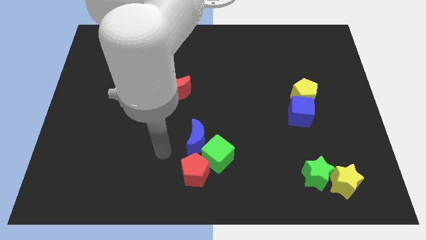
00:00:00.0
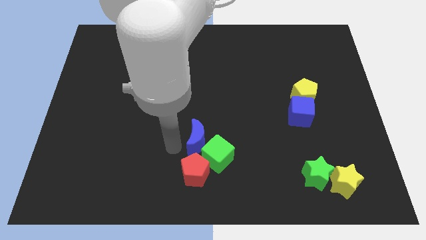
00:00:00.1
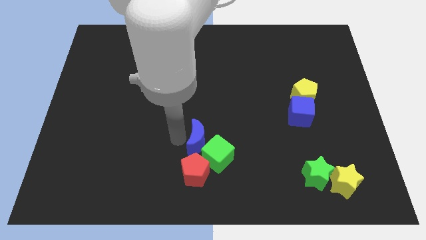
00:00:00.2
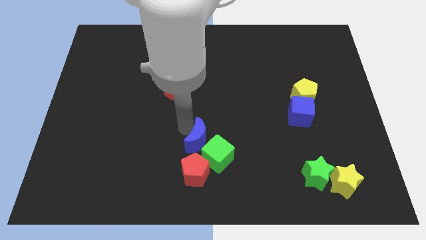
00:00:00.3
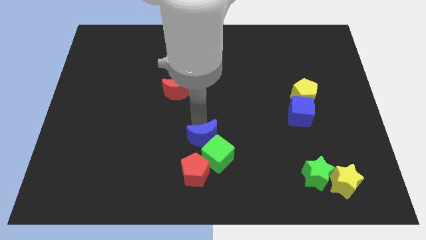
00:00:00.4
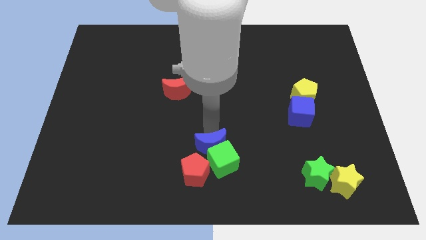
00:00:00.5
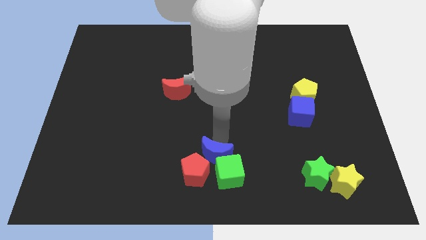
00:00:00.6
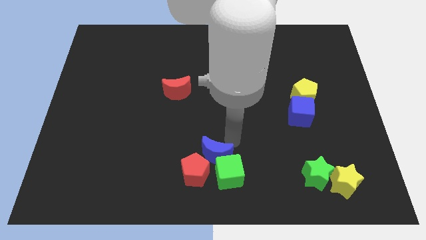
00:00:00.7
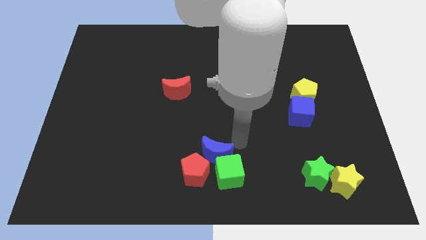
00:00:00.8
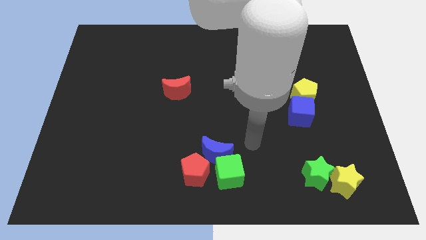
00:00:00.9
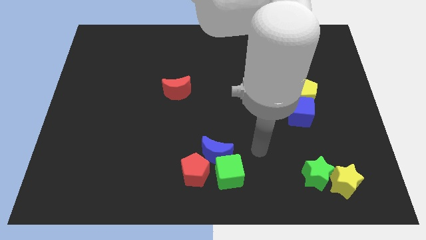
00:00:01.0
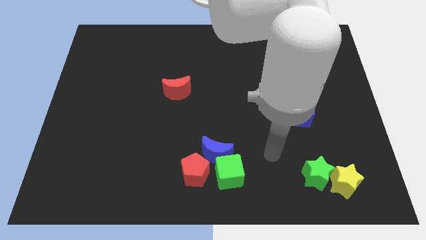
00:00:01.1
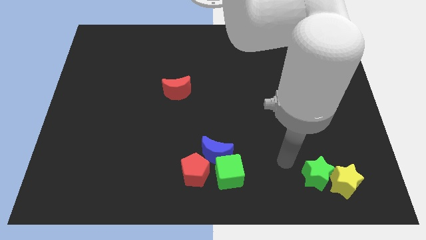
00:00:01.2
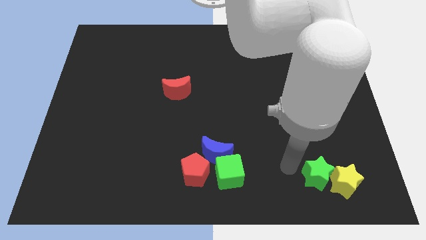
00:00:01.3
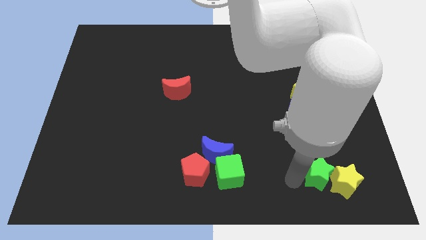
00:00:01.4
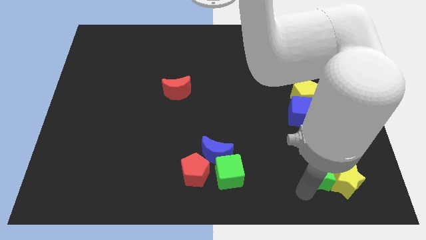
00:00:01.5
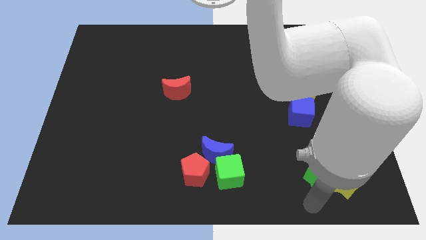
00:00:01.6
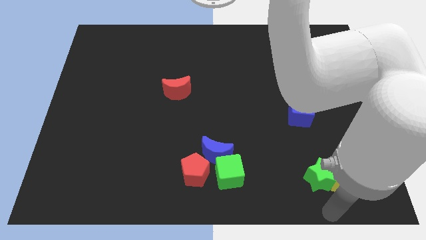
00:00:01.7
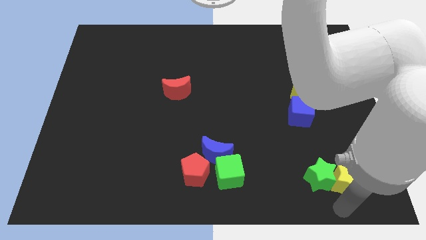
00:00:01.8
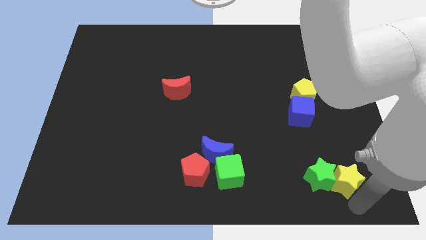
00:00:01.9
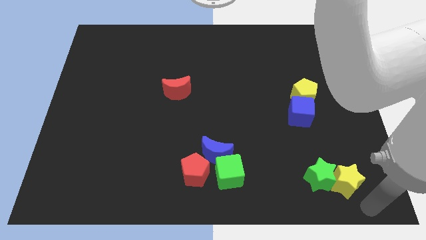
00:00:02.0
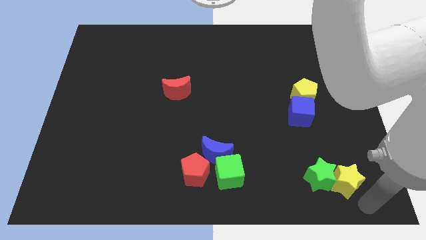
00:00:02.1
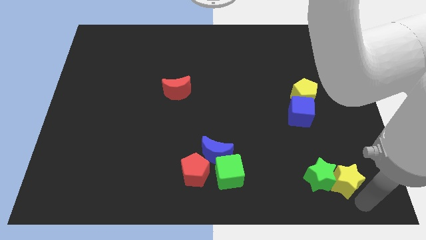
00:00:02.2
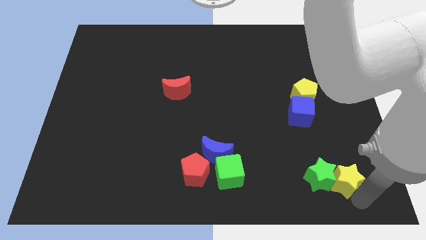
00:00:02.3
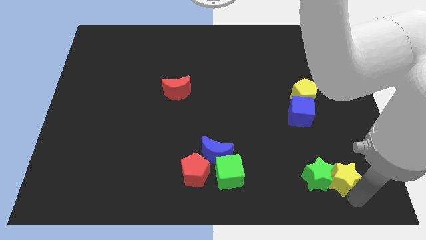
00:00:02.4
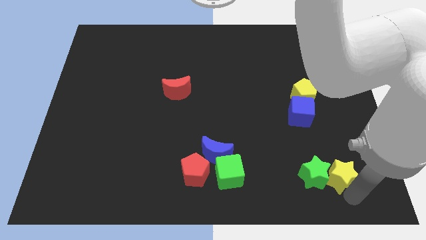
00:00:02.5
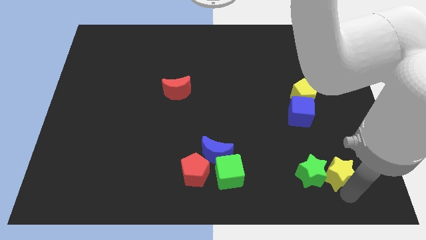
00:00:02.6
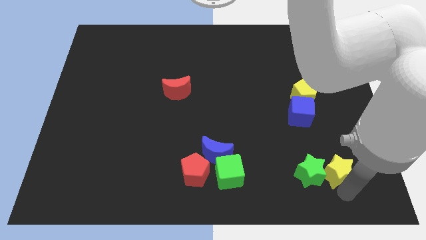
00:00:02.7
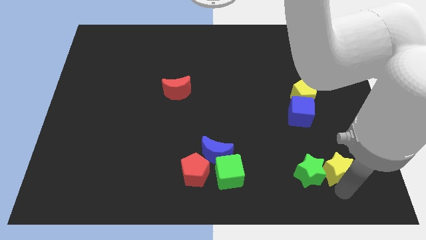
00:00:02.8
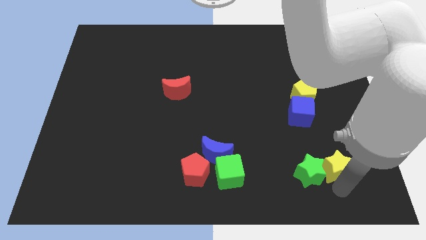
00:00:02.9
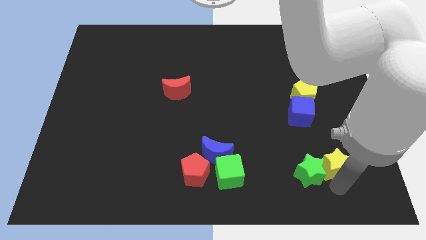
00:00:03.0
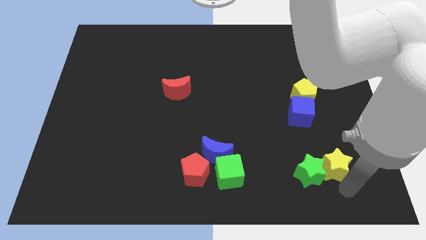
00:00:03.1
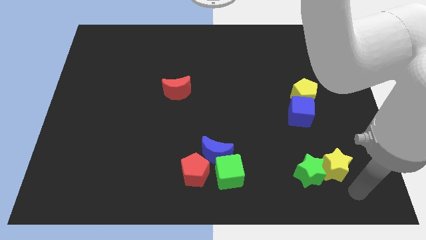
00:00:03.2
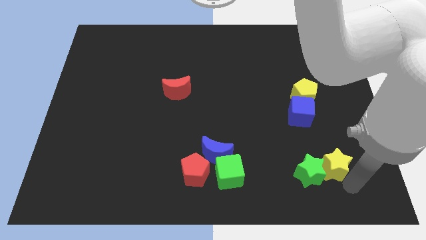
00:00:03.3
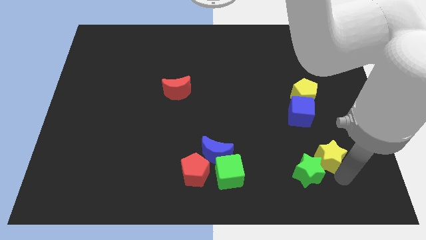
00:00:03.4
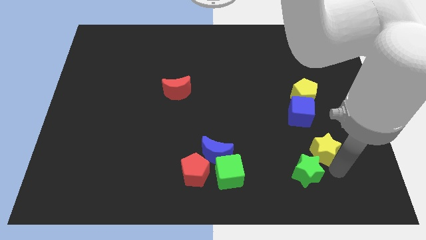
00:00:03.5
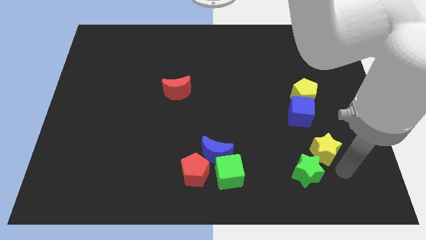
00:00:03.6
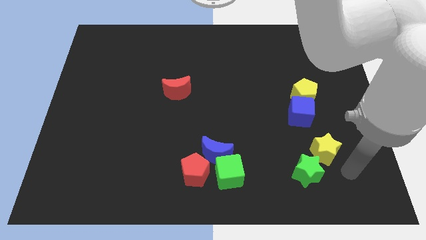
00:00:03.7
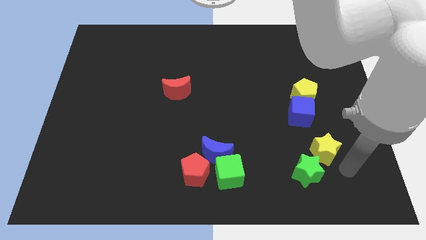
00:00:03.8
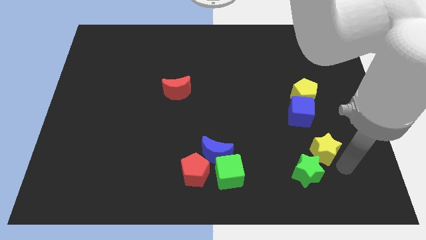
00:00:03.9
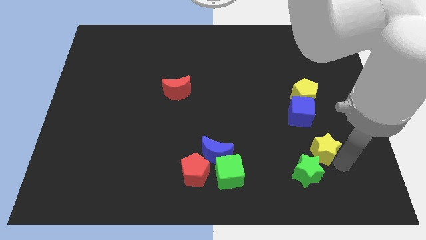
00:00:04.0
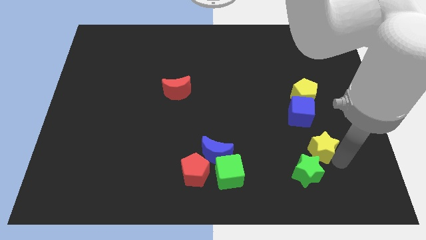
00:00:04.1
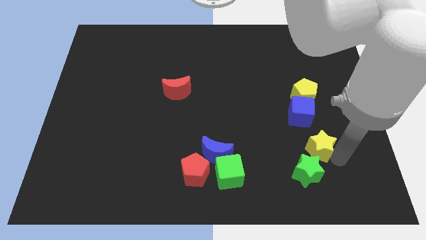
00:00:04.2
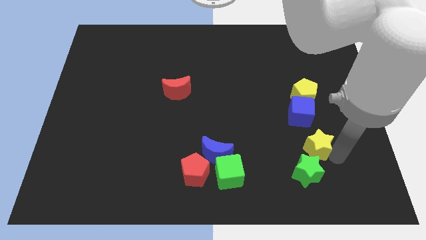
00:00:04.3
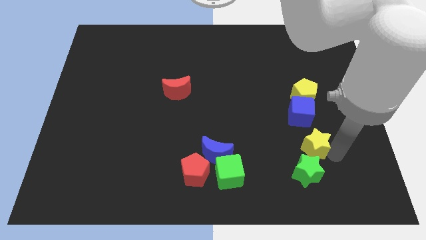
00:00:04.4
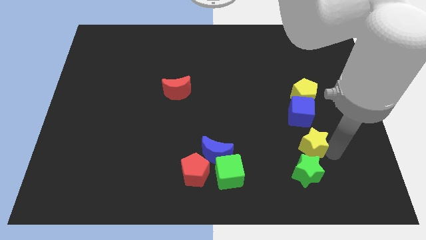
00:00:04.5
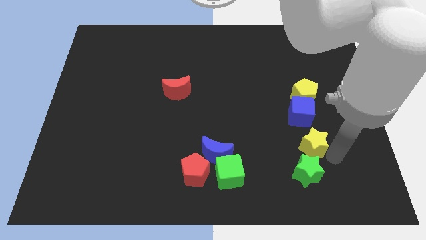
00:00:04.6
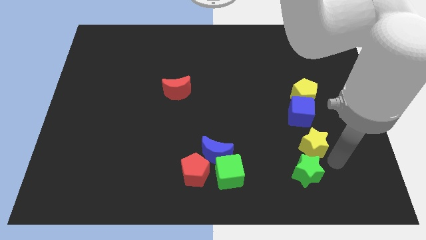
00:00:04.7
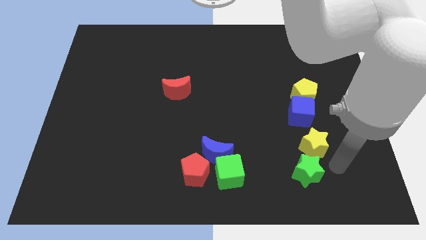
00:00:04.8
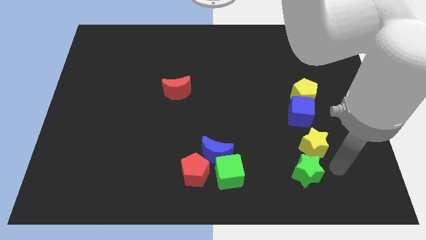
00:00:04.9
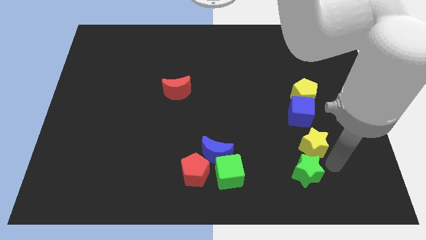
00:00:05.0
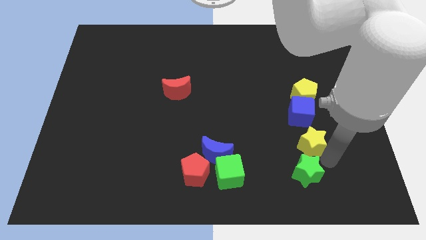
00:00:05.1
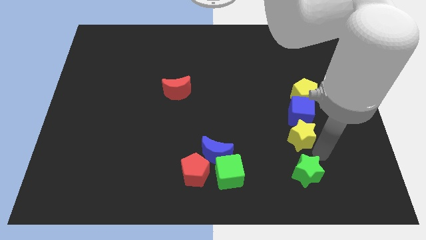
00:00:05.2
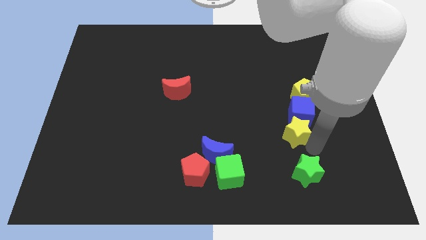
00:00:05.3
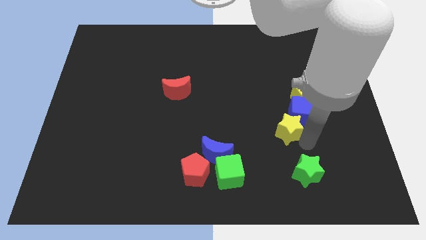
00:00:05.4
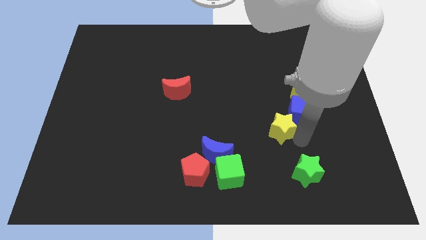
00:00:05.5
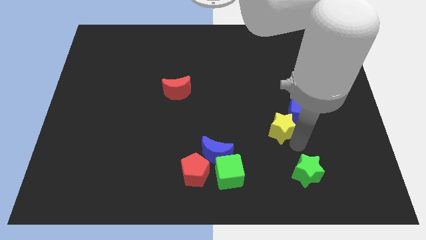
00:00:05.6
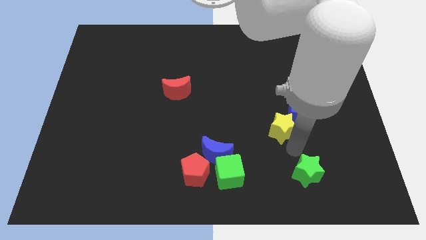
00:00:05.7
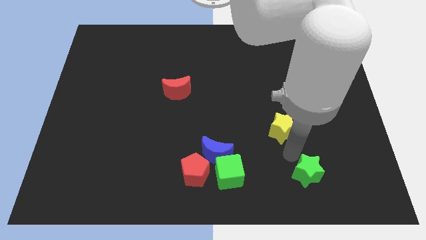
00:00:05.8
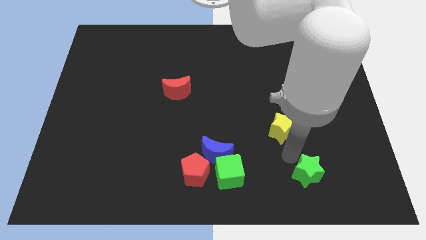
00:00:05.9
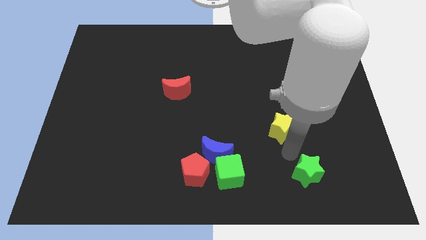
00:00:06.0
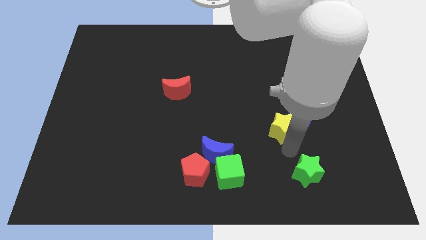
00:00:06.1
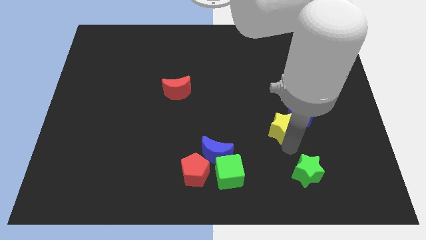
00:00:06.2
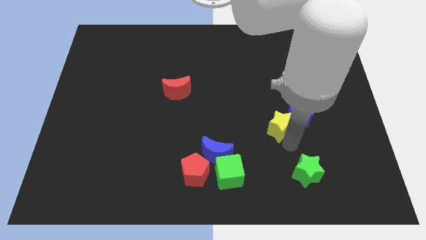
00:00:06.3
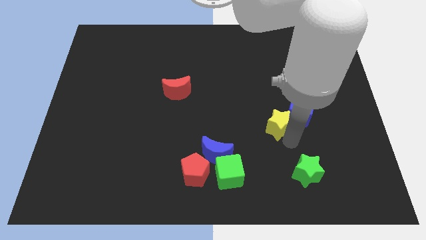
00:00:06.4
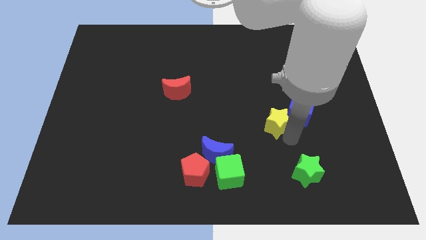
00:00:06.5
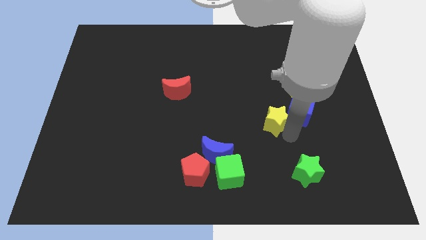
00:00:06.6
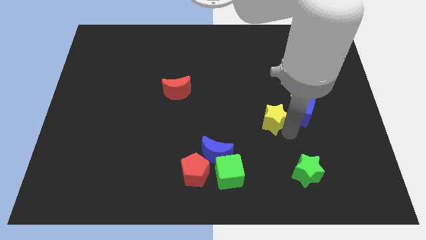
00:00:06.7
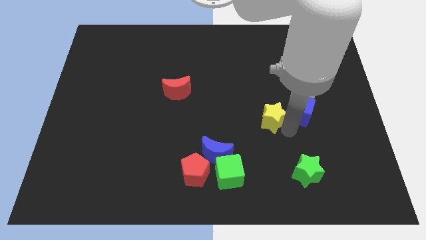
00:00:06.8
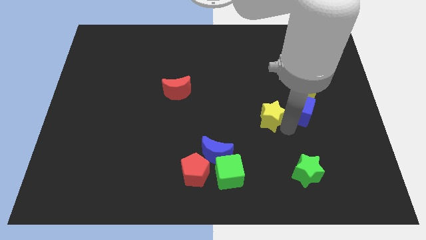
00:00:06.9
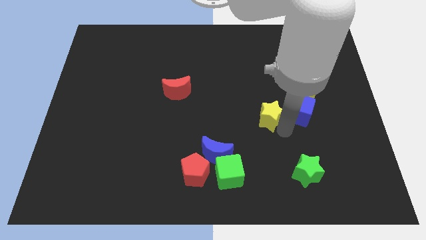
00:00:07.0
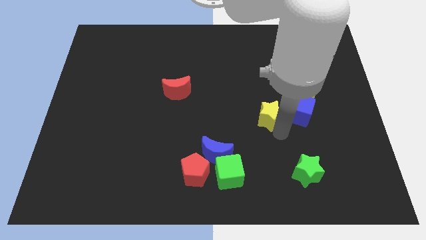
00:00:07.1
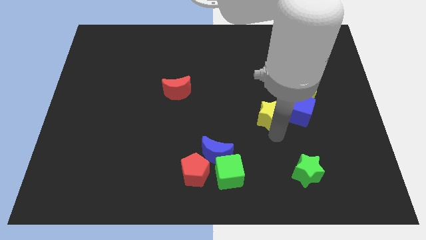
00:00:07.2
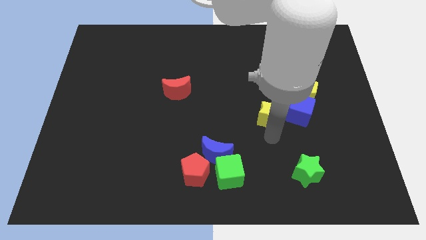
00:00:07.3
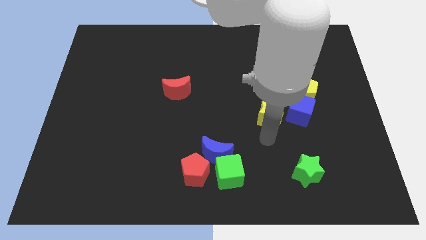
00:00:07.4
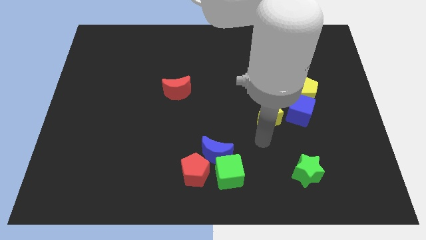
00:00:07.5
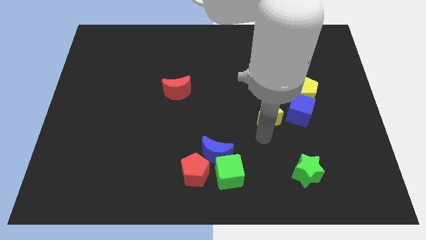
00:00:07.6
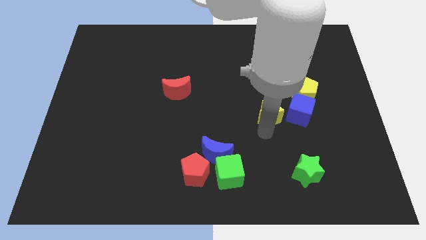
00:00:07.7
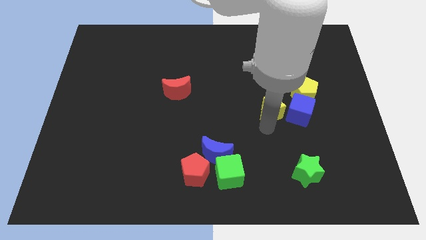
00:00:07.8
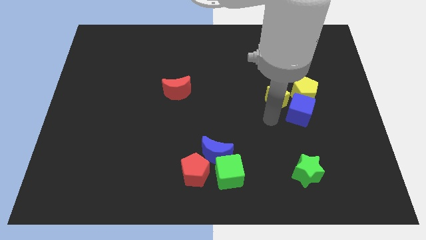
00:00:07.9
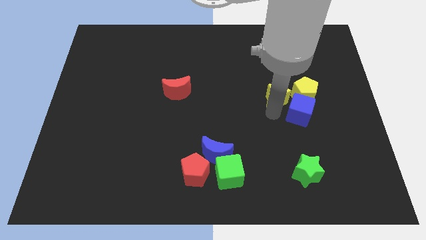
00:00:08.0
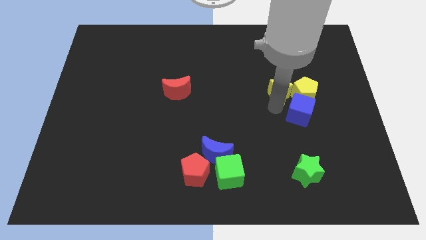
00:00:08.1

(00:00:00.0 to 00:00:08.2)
move the yellow star diagonally up and to the left of the yellow pentagon
